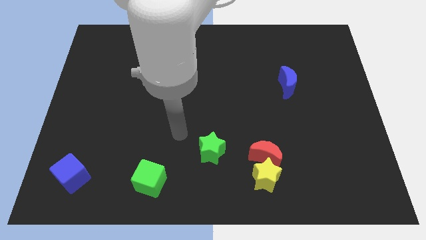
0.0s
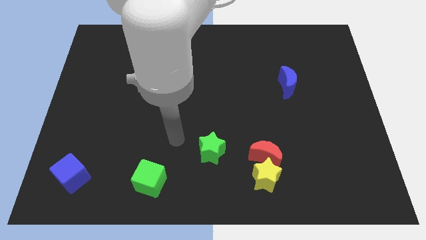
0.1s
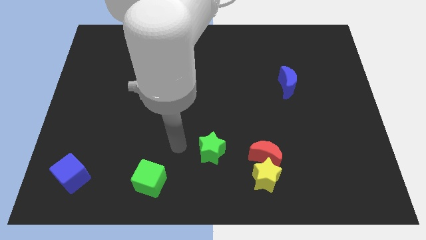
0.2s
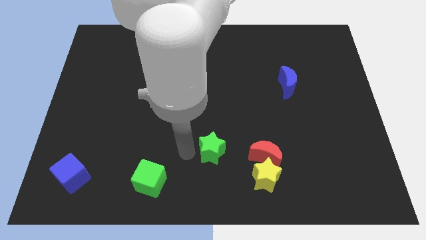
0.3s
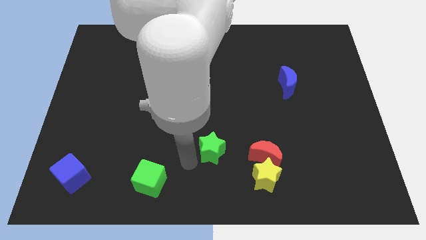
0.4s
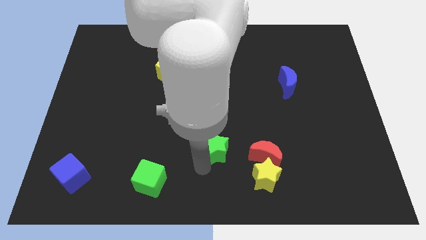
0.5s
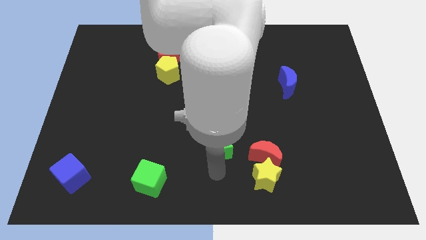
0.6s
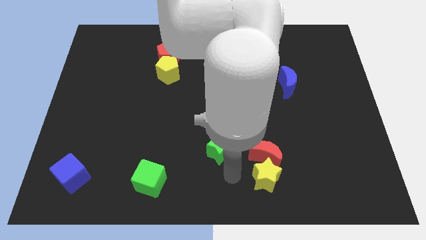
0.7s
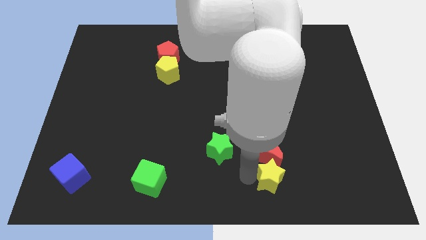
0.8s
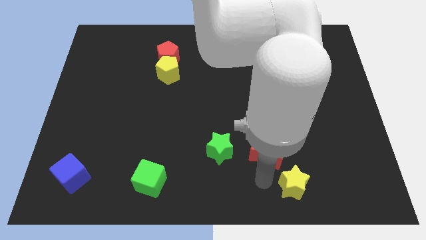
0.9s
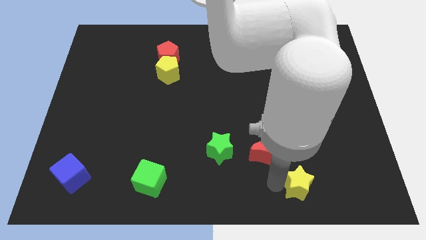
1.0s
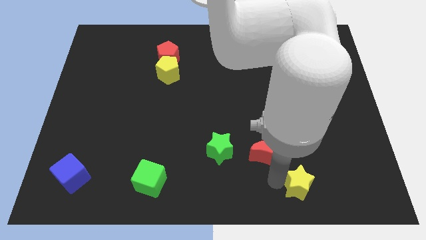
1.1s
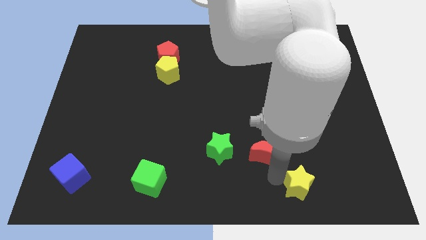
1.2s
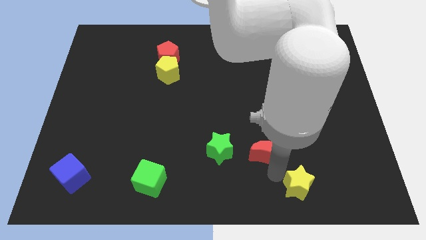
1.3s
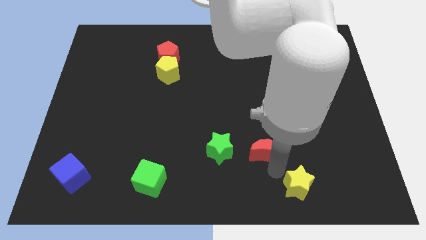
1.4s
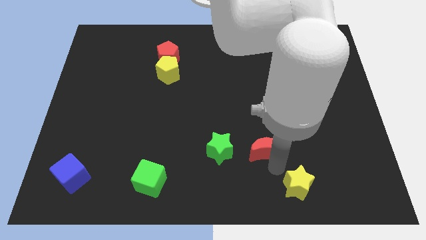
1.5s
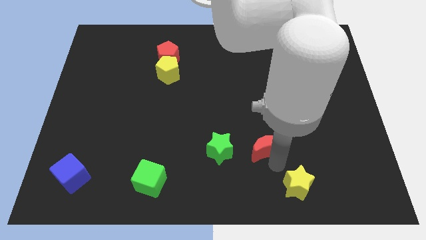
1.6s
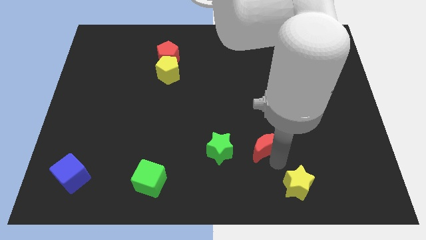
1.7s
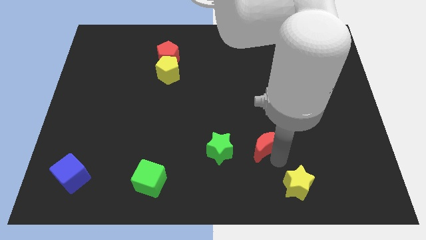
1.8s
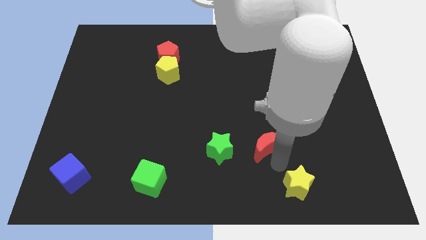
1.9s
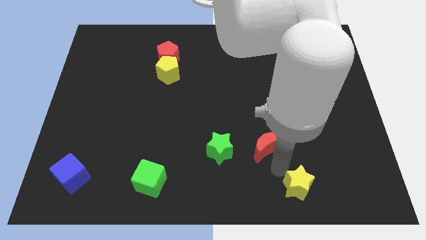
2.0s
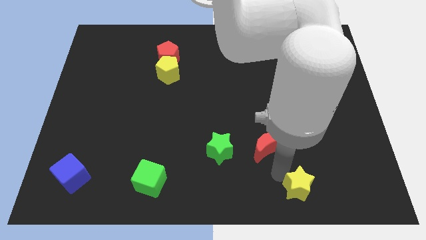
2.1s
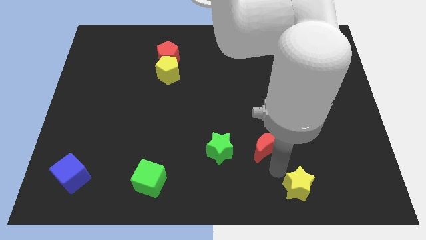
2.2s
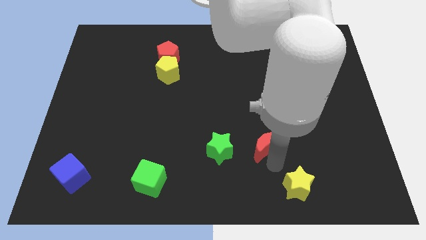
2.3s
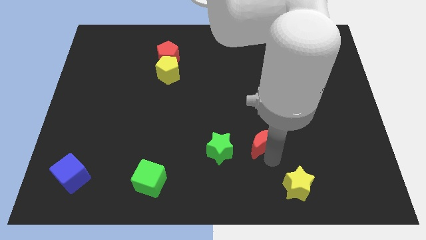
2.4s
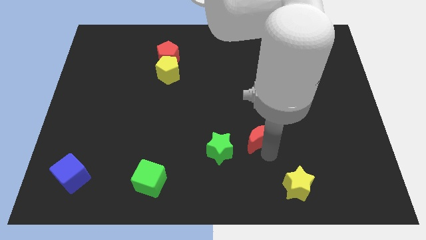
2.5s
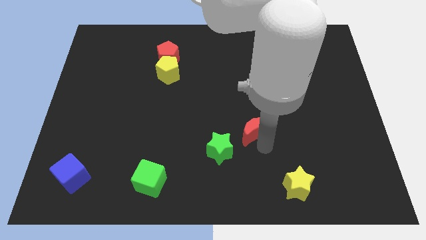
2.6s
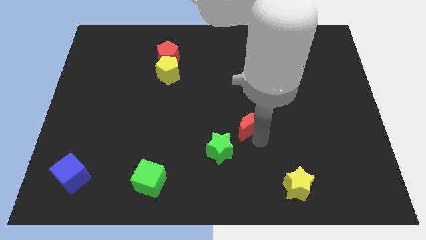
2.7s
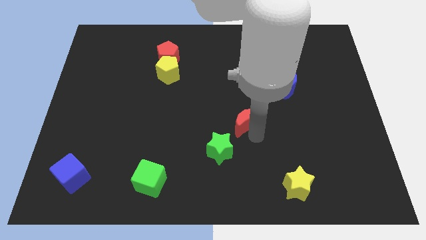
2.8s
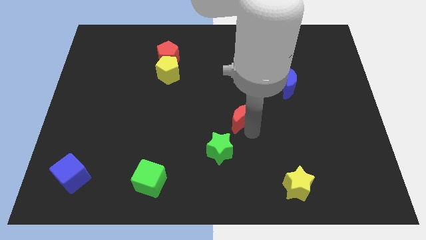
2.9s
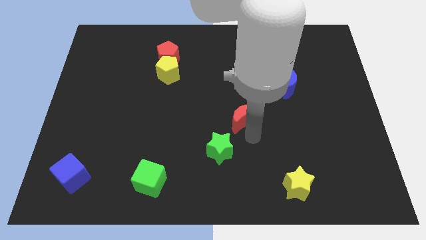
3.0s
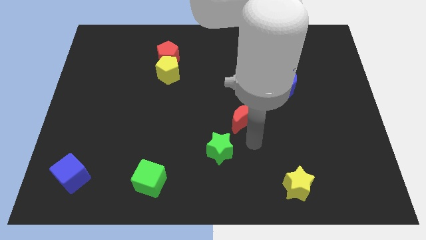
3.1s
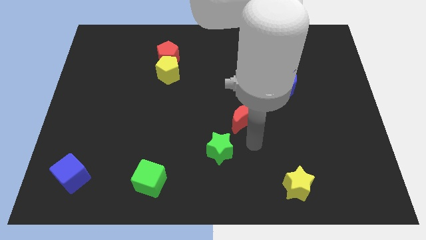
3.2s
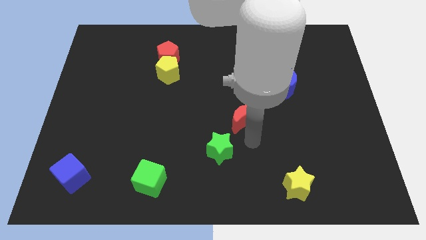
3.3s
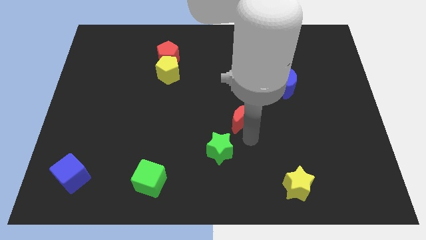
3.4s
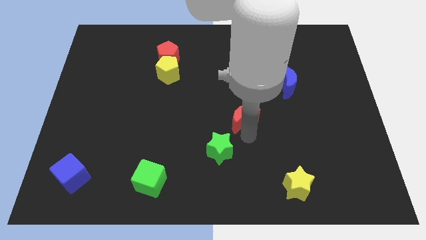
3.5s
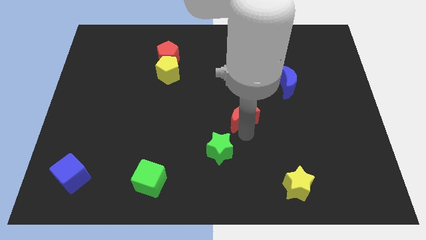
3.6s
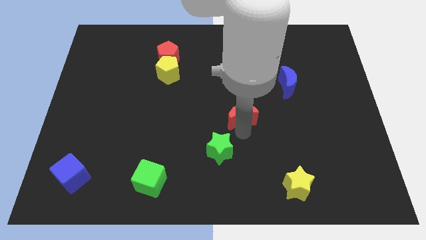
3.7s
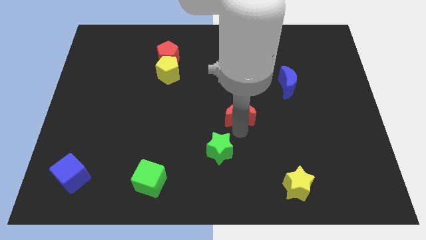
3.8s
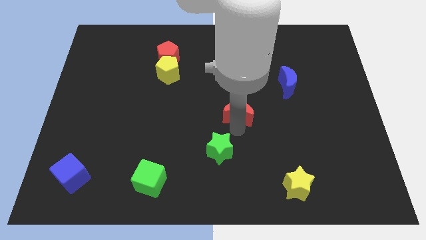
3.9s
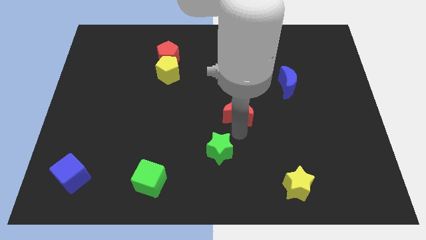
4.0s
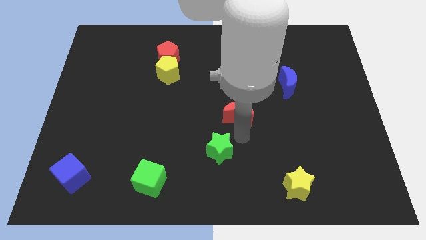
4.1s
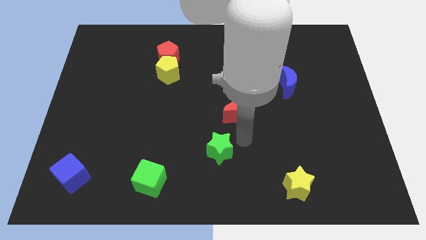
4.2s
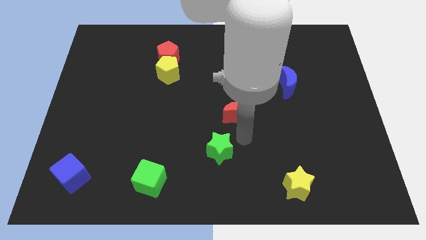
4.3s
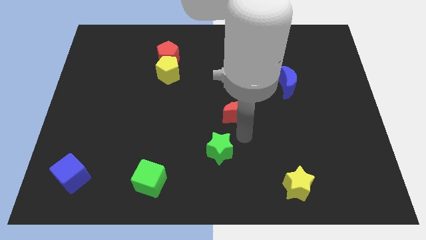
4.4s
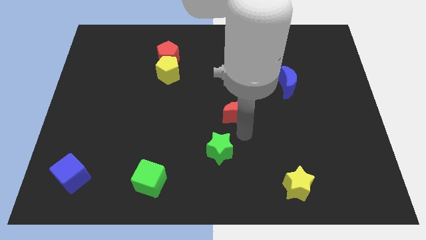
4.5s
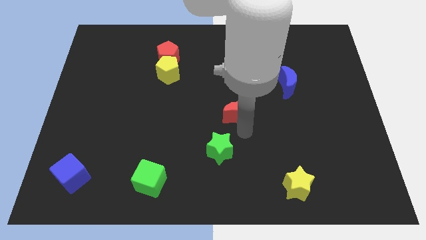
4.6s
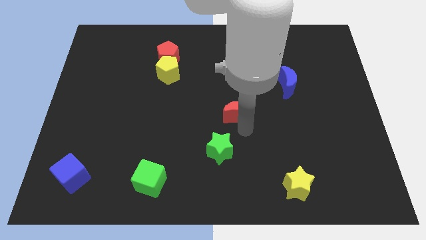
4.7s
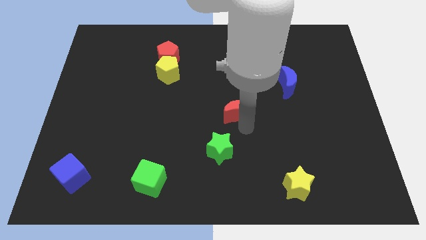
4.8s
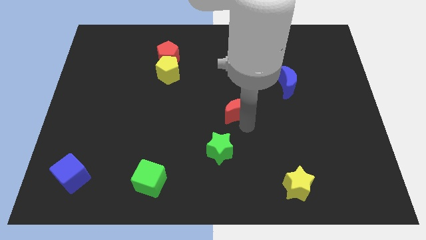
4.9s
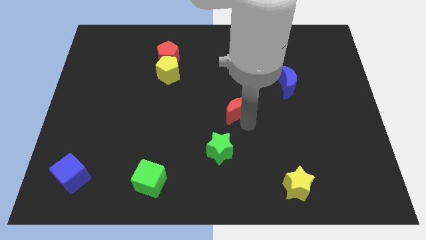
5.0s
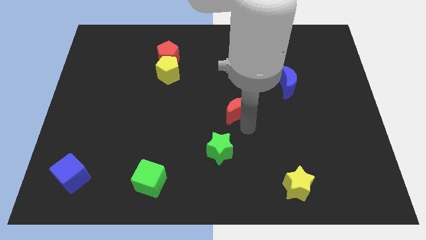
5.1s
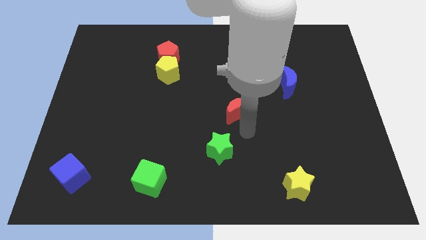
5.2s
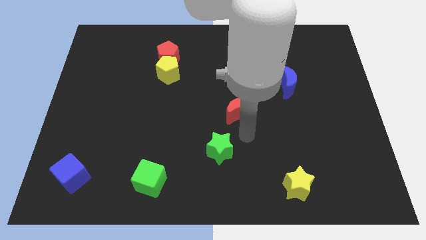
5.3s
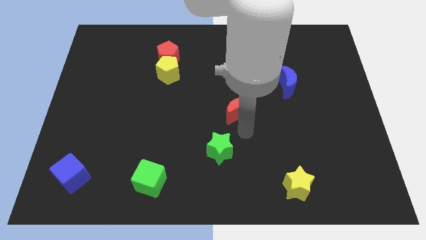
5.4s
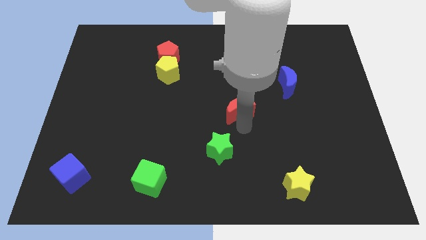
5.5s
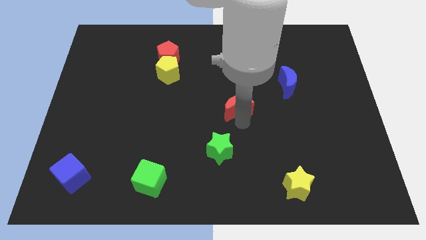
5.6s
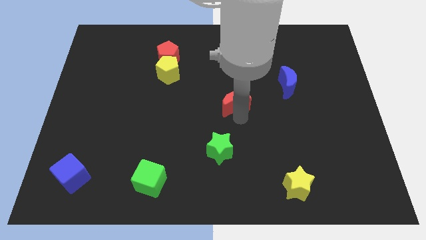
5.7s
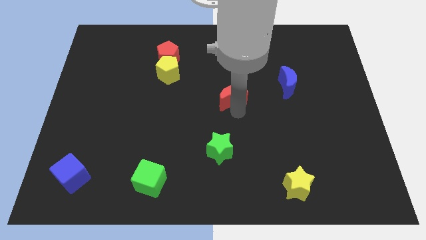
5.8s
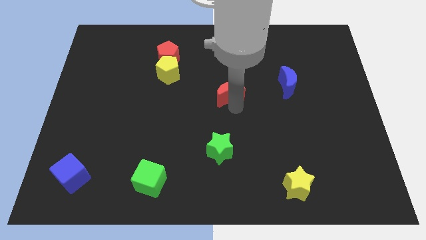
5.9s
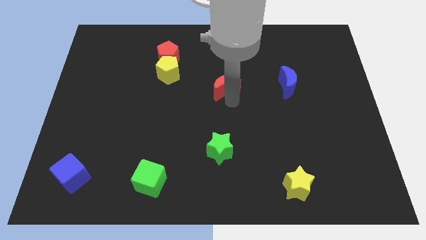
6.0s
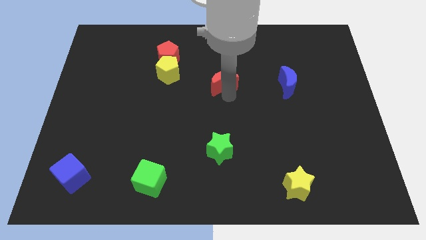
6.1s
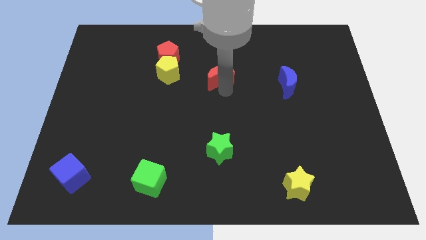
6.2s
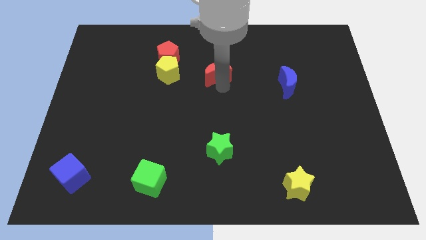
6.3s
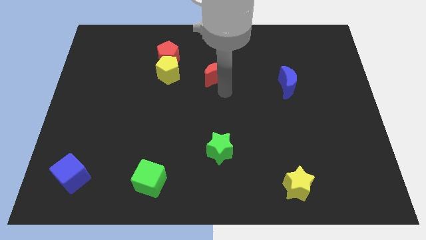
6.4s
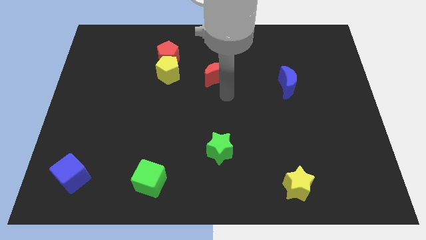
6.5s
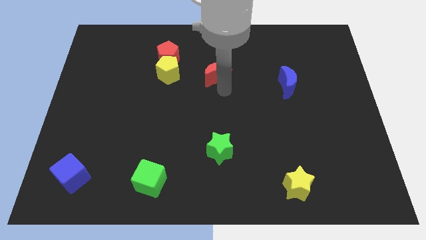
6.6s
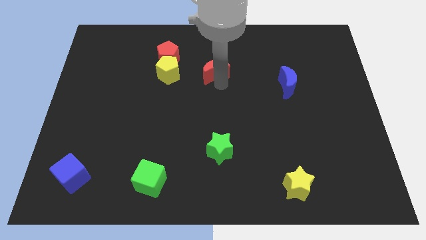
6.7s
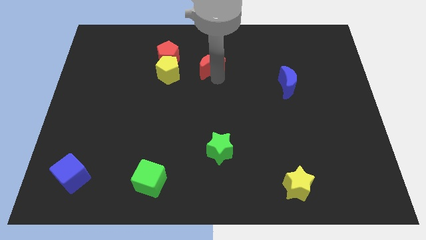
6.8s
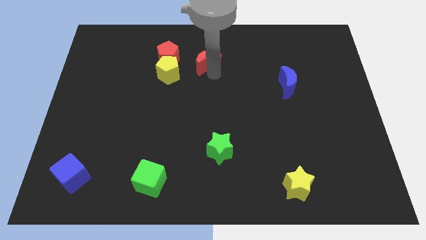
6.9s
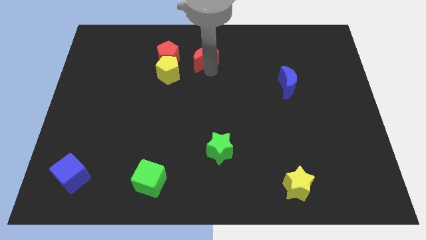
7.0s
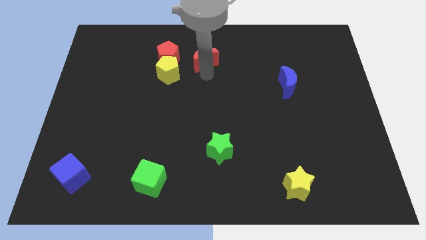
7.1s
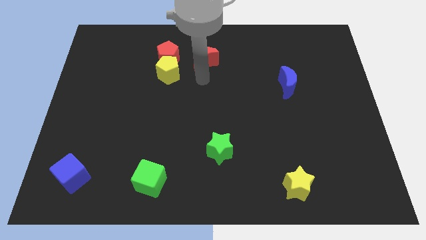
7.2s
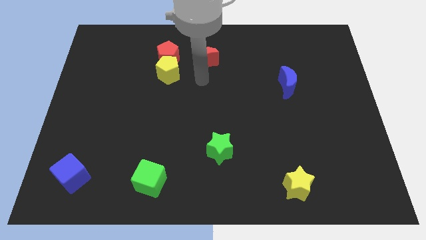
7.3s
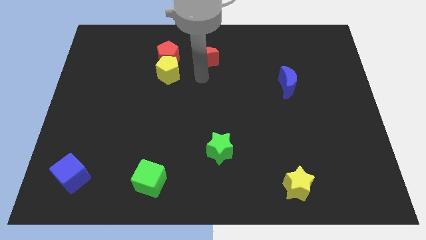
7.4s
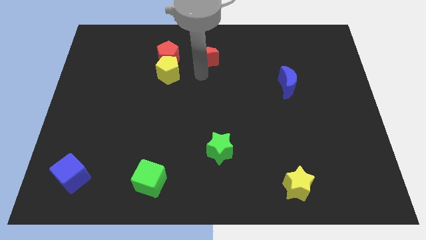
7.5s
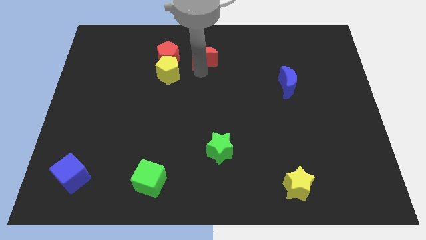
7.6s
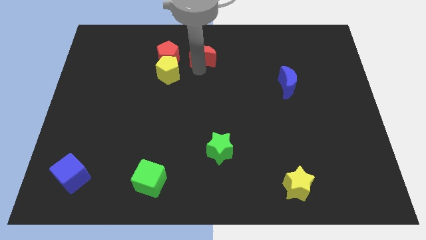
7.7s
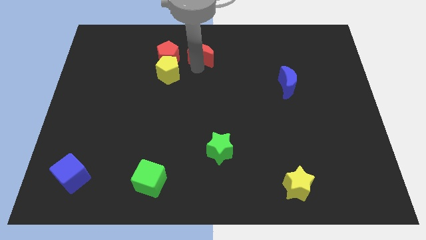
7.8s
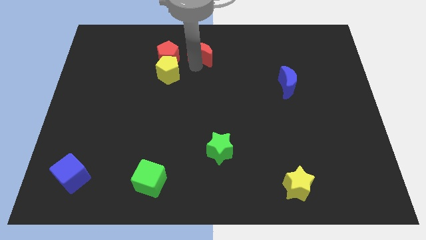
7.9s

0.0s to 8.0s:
push the red moon to the towards your base
